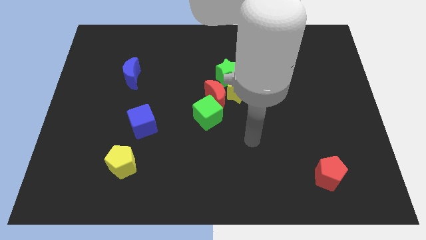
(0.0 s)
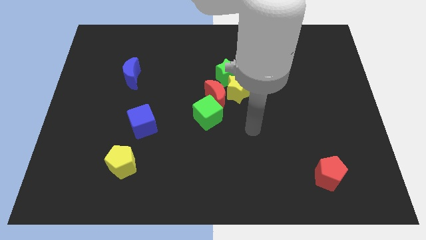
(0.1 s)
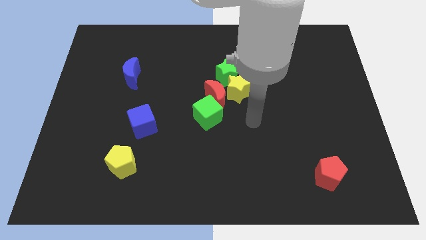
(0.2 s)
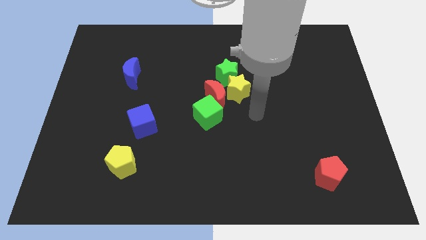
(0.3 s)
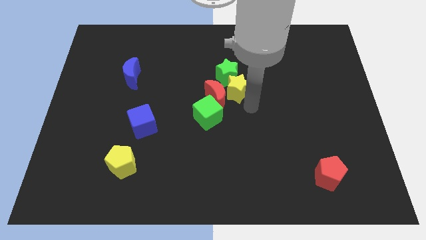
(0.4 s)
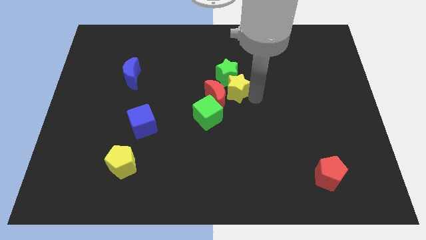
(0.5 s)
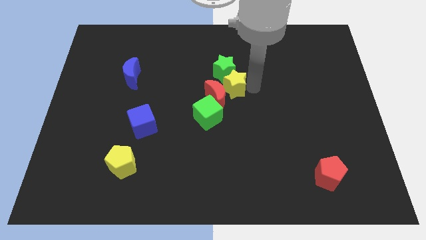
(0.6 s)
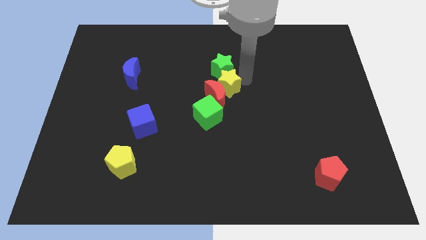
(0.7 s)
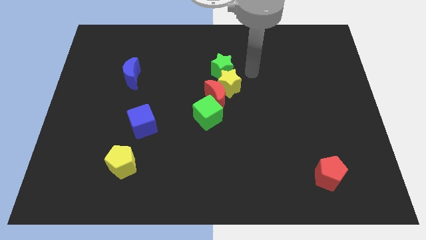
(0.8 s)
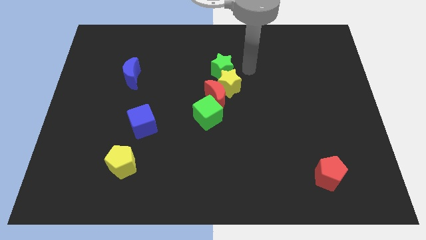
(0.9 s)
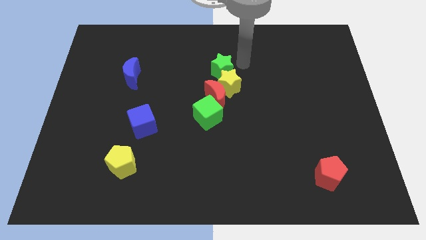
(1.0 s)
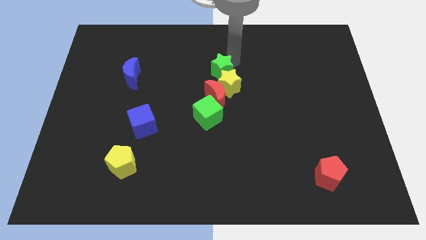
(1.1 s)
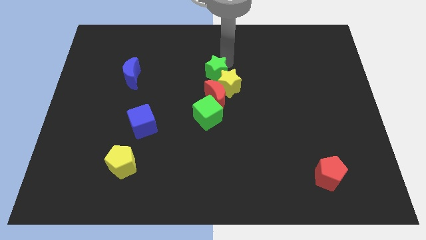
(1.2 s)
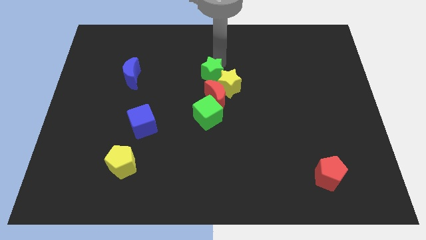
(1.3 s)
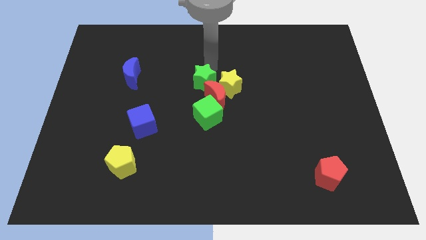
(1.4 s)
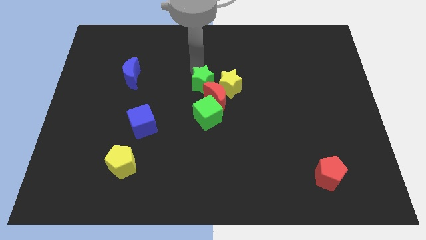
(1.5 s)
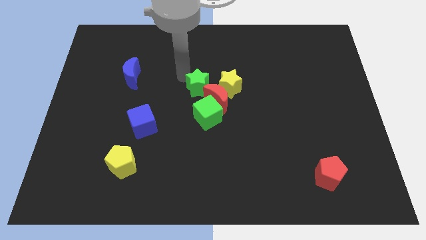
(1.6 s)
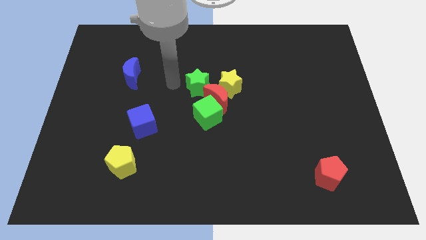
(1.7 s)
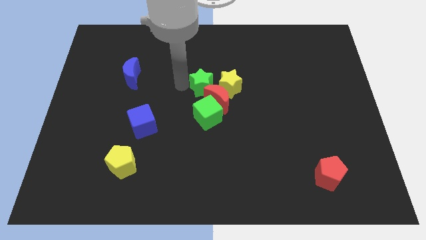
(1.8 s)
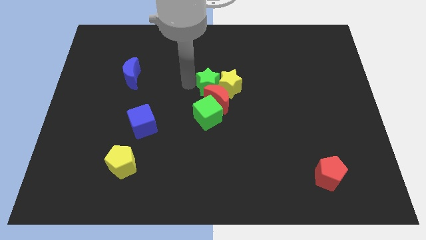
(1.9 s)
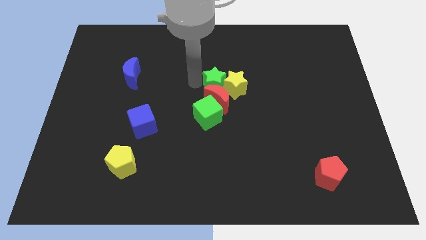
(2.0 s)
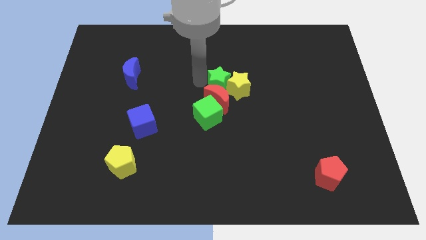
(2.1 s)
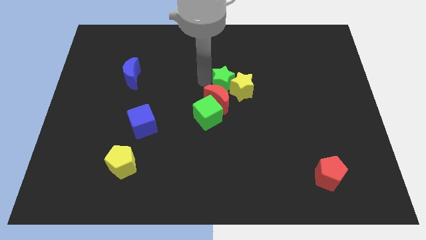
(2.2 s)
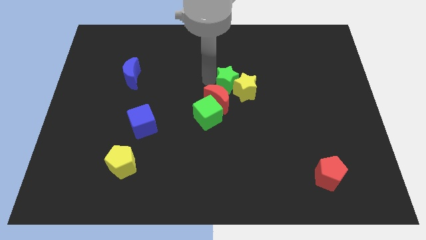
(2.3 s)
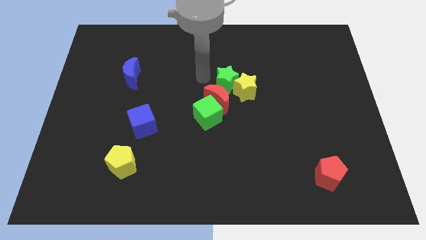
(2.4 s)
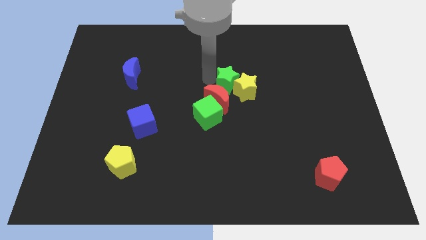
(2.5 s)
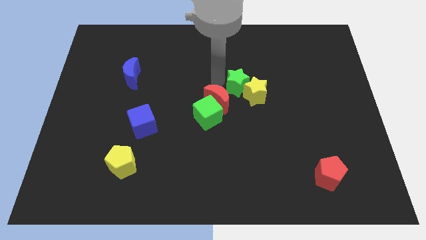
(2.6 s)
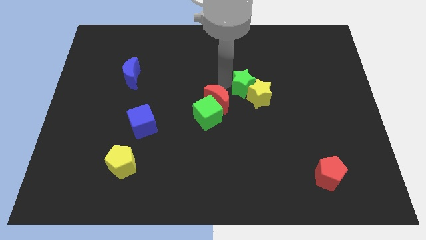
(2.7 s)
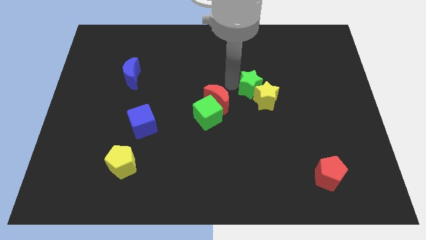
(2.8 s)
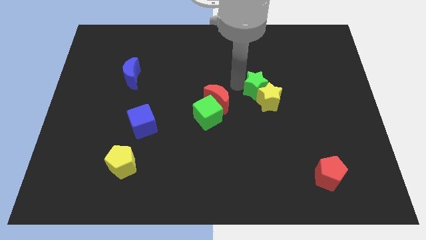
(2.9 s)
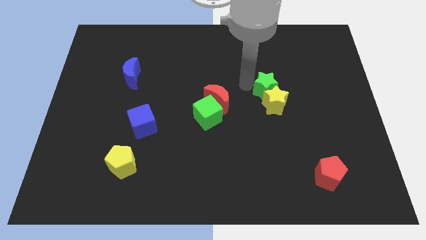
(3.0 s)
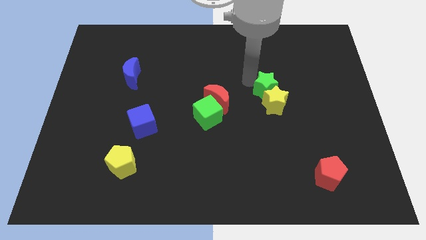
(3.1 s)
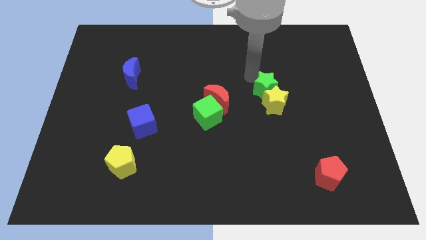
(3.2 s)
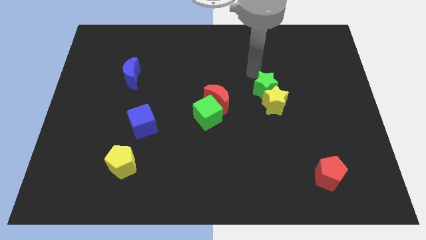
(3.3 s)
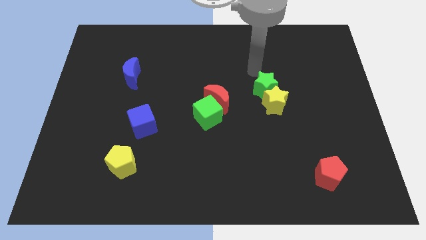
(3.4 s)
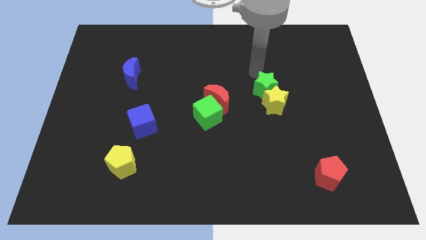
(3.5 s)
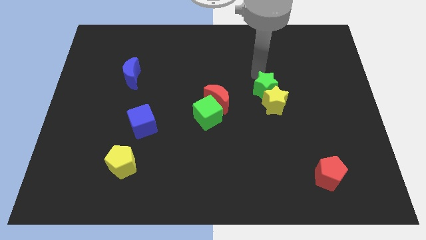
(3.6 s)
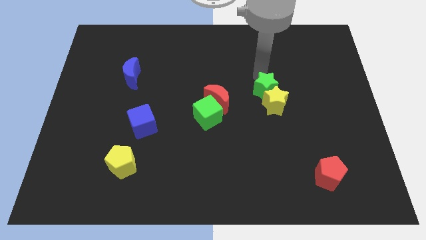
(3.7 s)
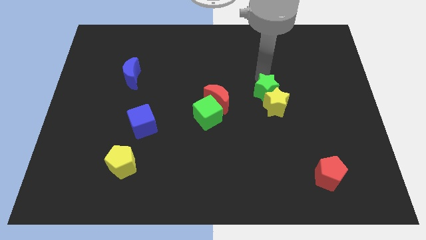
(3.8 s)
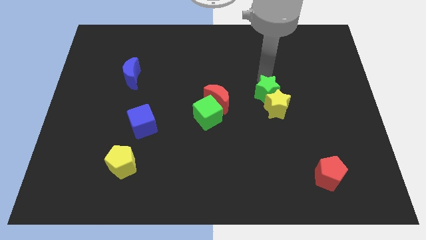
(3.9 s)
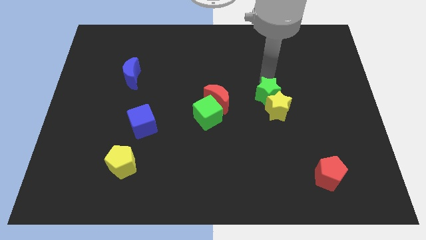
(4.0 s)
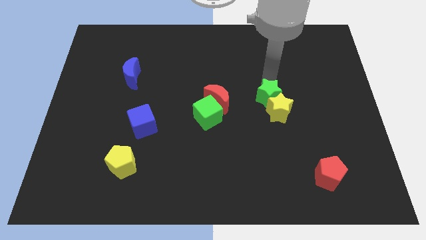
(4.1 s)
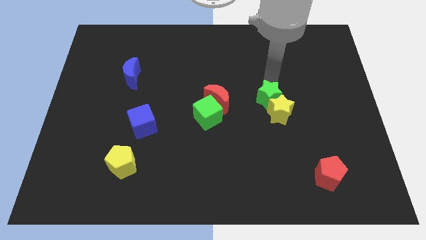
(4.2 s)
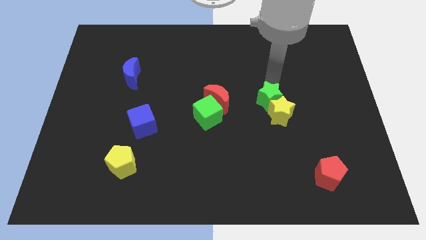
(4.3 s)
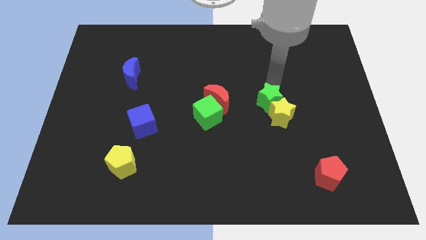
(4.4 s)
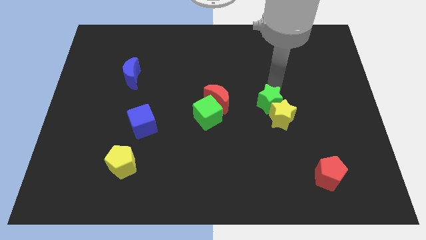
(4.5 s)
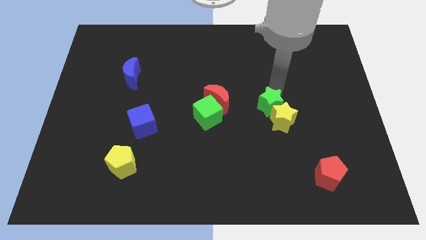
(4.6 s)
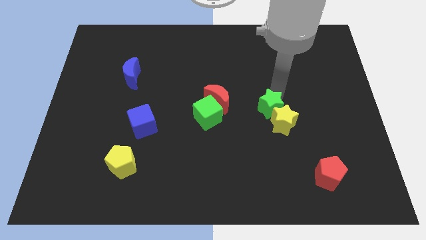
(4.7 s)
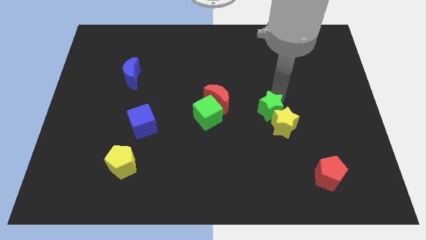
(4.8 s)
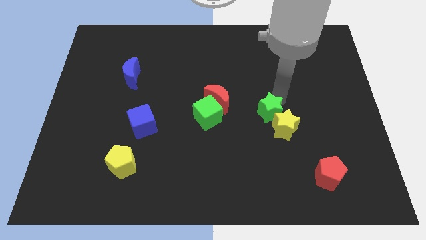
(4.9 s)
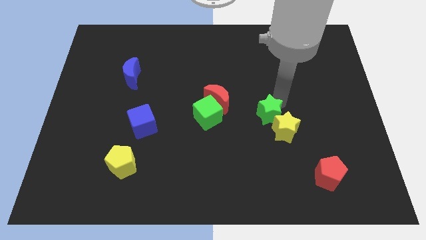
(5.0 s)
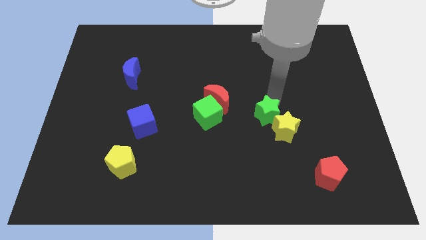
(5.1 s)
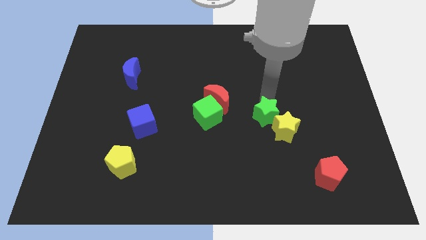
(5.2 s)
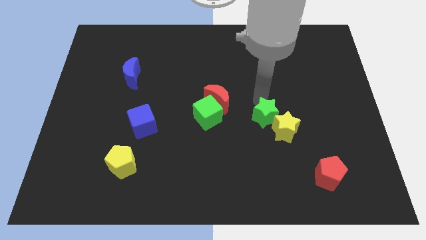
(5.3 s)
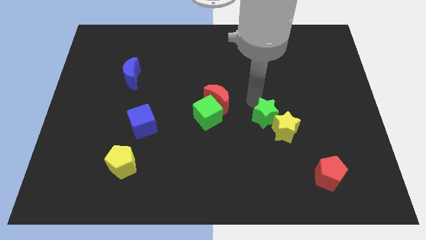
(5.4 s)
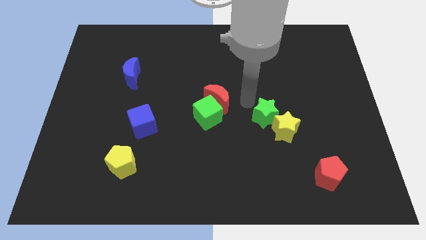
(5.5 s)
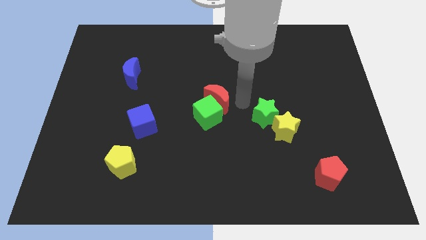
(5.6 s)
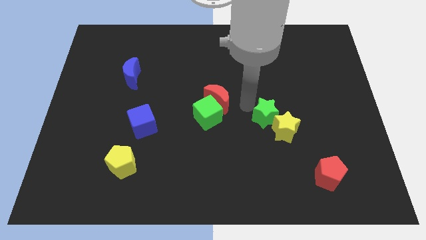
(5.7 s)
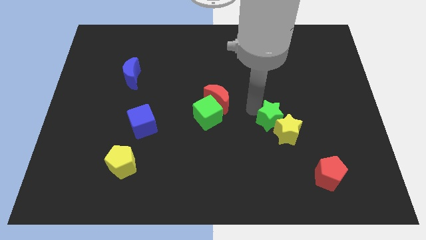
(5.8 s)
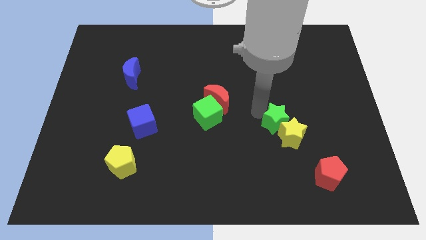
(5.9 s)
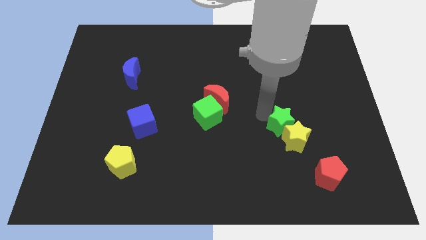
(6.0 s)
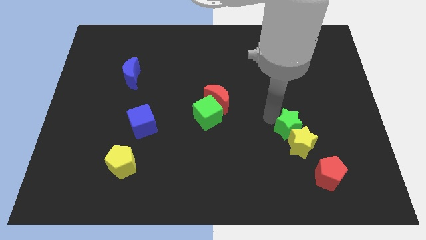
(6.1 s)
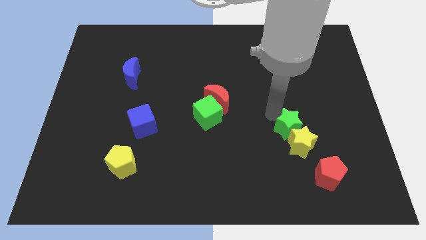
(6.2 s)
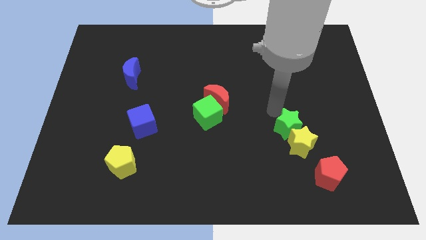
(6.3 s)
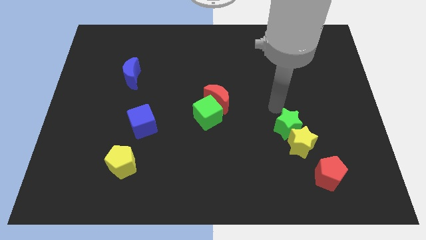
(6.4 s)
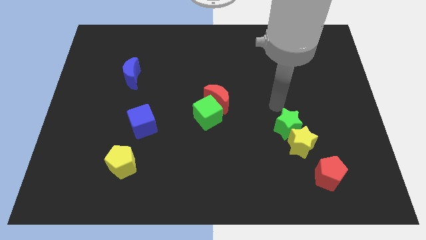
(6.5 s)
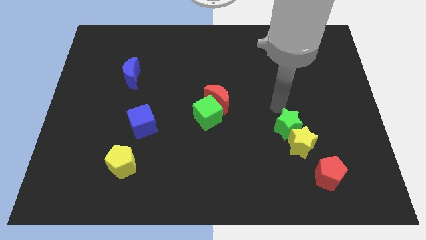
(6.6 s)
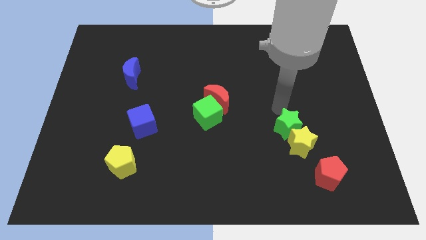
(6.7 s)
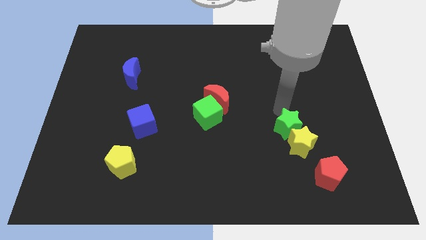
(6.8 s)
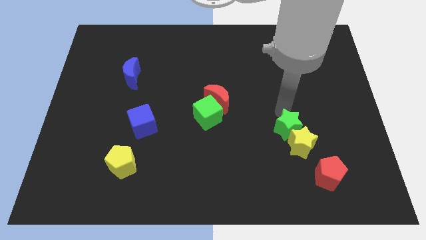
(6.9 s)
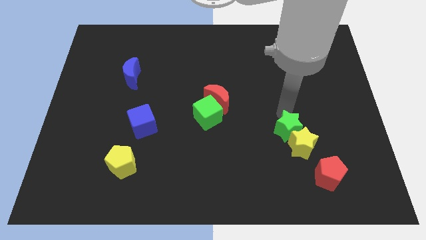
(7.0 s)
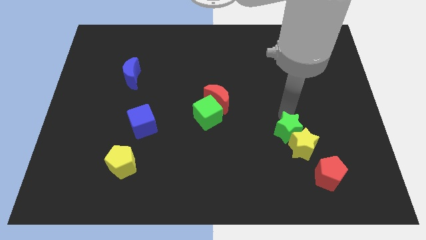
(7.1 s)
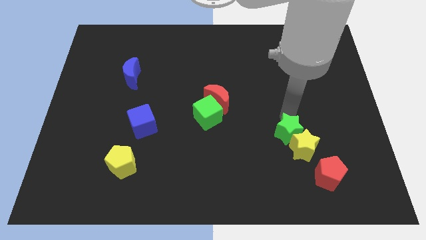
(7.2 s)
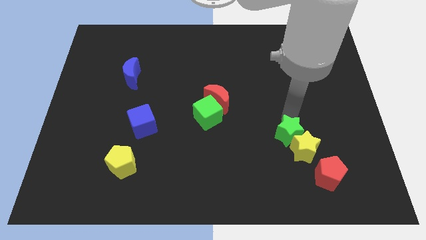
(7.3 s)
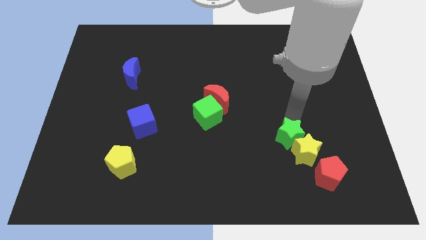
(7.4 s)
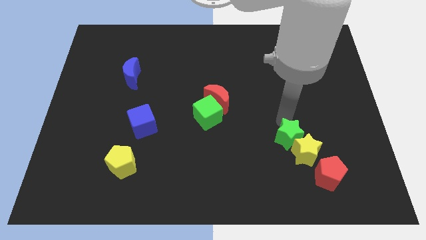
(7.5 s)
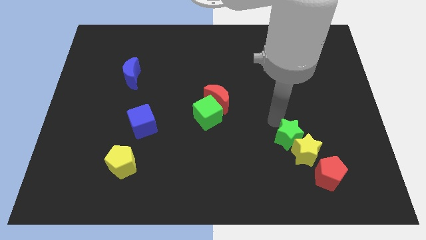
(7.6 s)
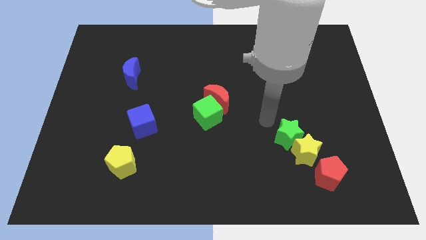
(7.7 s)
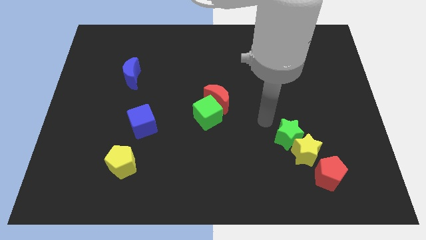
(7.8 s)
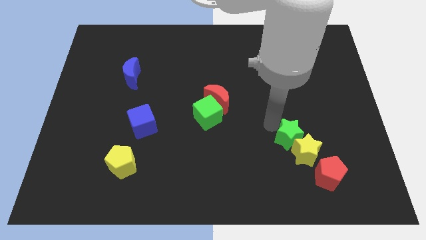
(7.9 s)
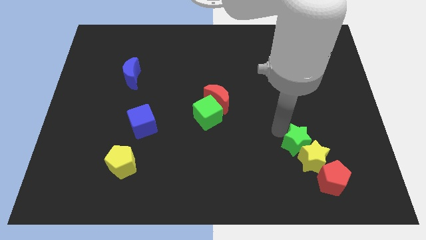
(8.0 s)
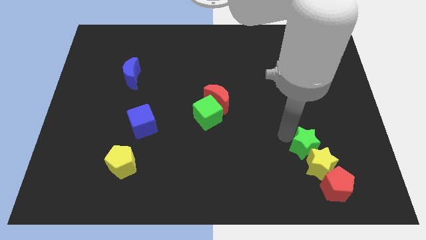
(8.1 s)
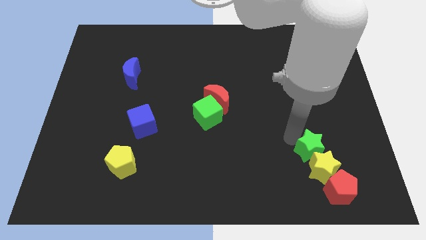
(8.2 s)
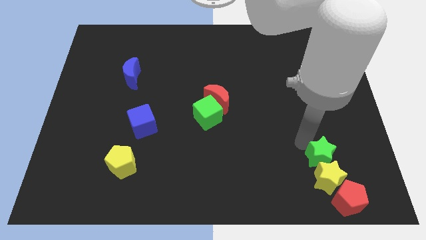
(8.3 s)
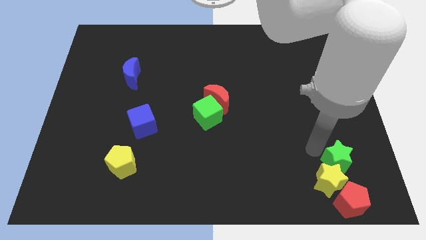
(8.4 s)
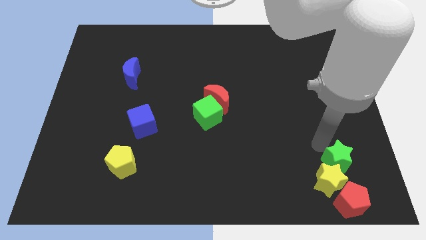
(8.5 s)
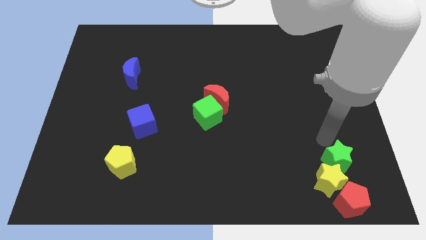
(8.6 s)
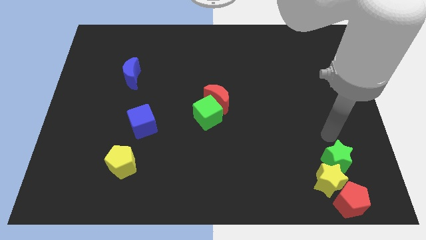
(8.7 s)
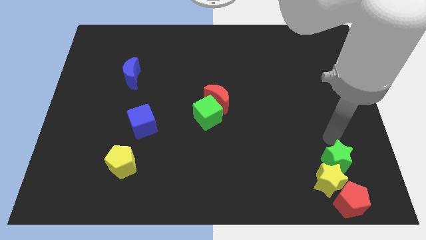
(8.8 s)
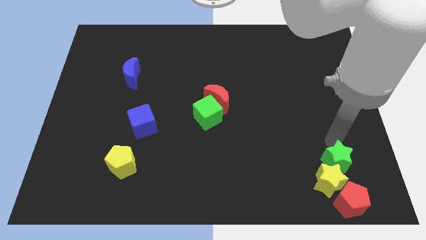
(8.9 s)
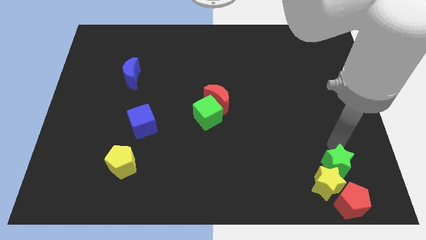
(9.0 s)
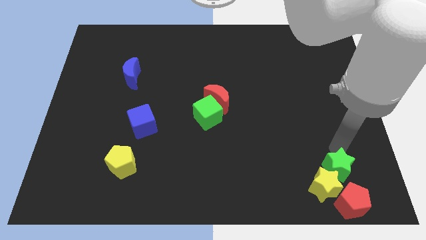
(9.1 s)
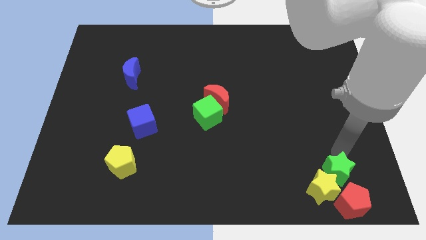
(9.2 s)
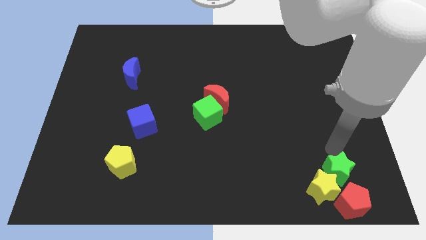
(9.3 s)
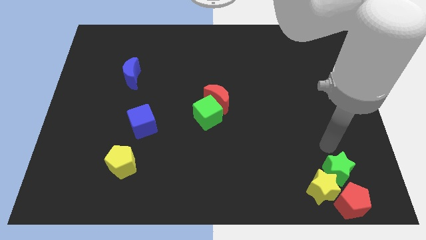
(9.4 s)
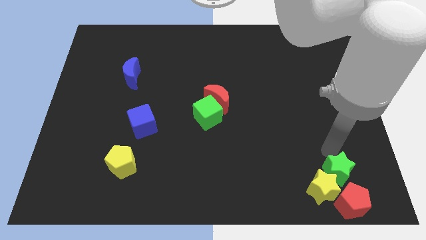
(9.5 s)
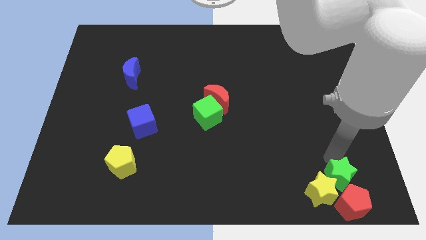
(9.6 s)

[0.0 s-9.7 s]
move the green star next to the red pentagon
